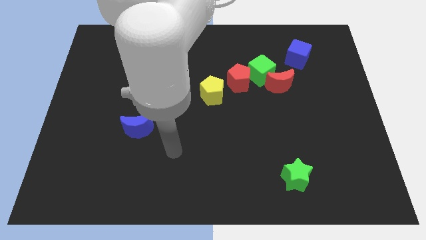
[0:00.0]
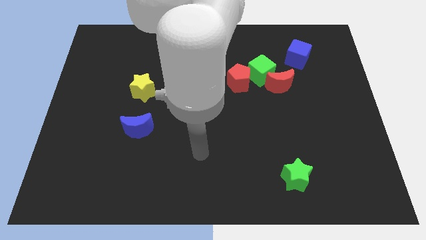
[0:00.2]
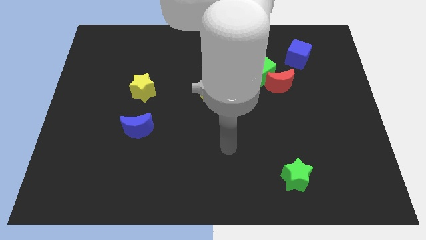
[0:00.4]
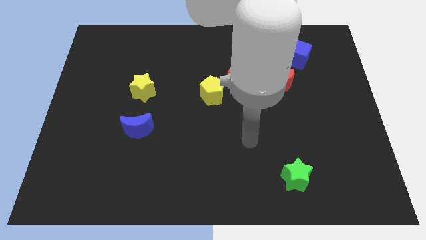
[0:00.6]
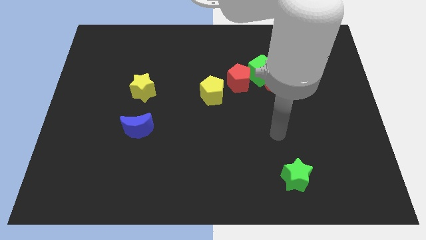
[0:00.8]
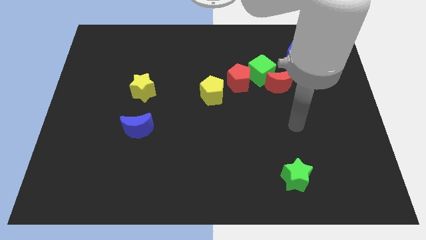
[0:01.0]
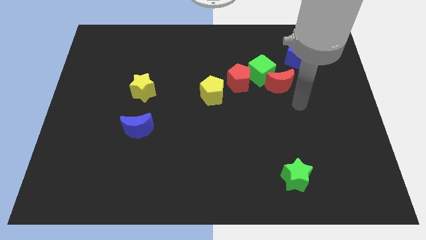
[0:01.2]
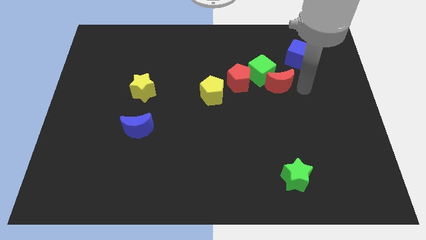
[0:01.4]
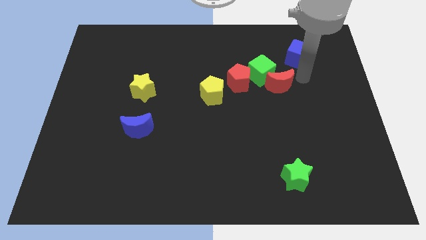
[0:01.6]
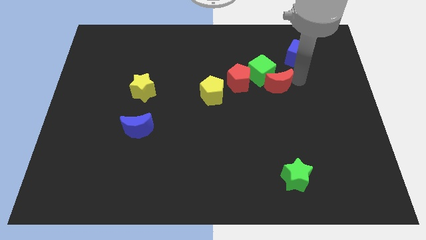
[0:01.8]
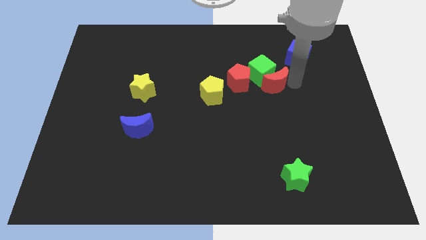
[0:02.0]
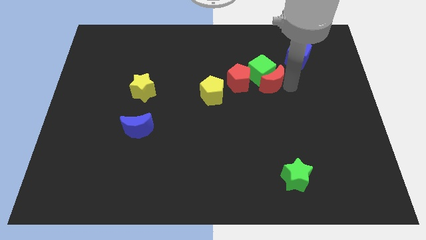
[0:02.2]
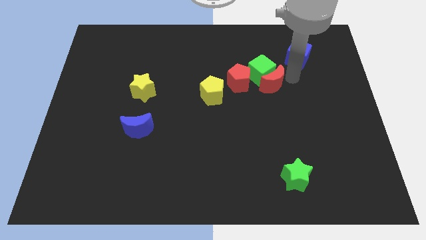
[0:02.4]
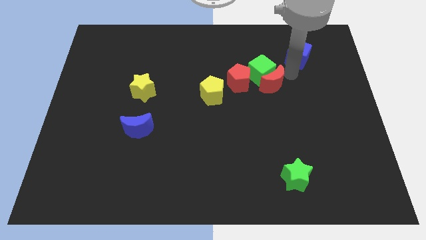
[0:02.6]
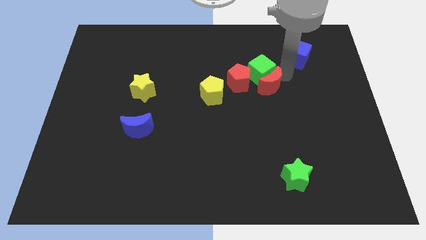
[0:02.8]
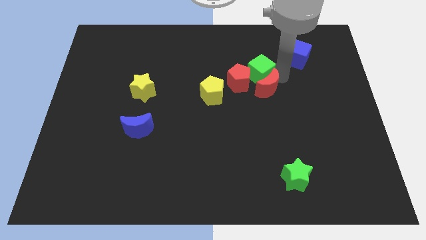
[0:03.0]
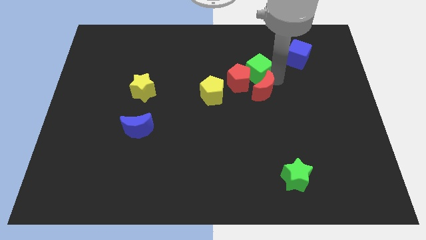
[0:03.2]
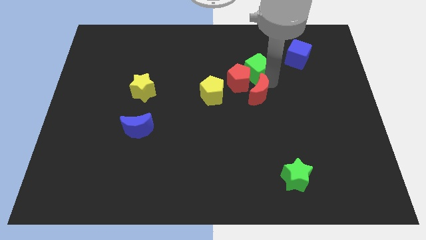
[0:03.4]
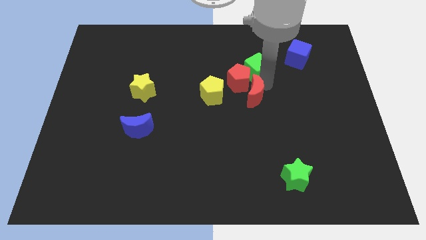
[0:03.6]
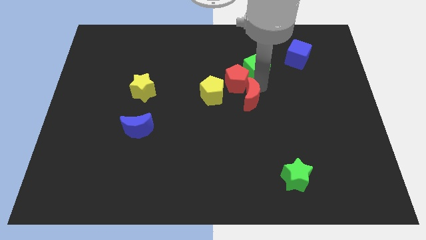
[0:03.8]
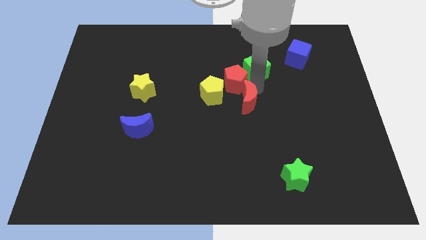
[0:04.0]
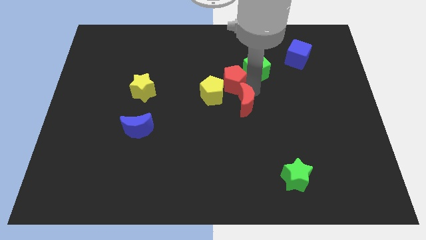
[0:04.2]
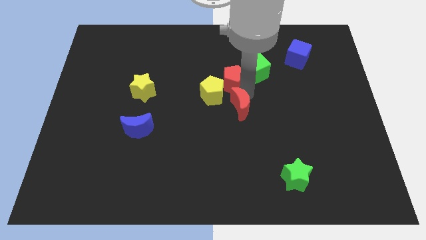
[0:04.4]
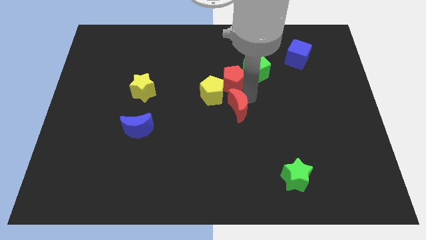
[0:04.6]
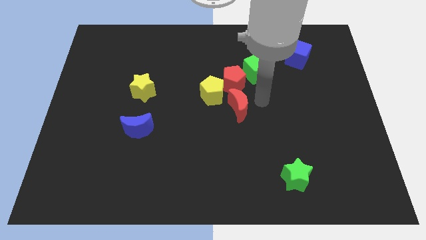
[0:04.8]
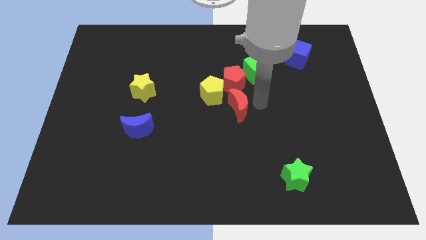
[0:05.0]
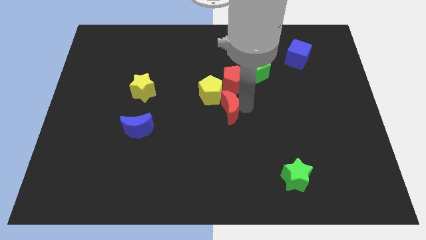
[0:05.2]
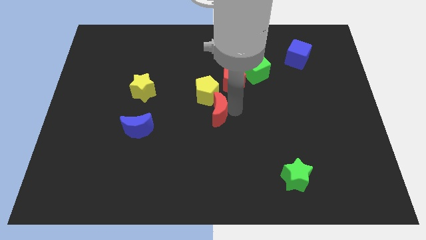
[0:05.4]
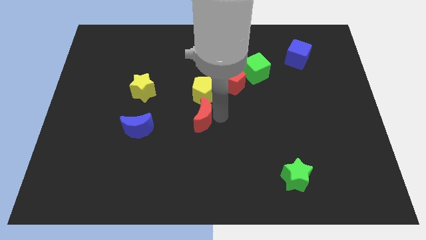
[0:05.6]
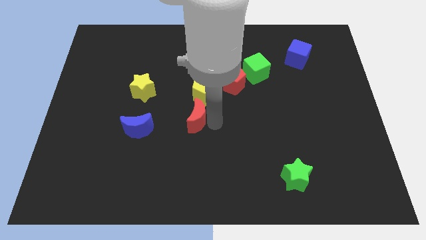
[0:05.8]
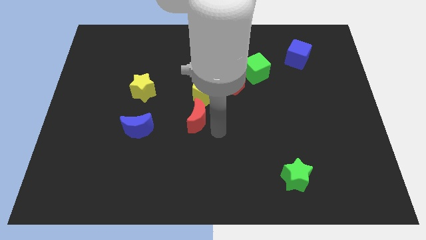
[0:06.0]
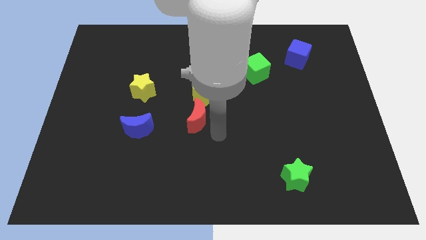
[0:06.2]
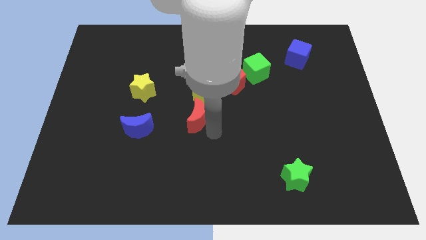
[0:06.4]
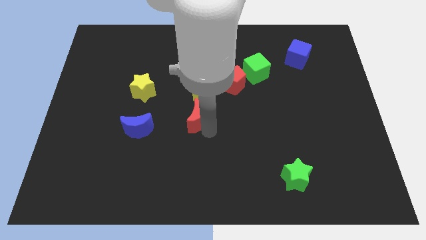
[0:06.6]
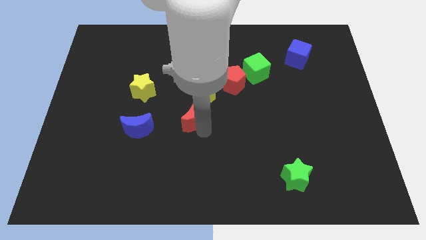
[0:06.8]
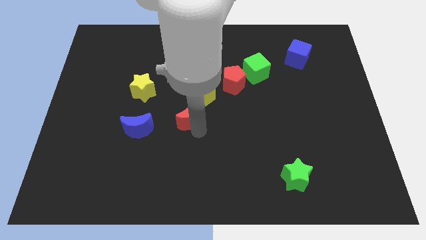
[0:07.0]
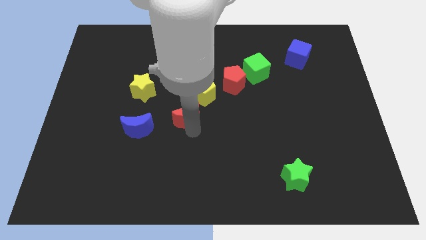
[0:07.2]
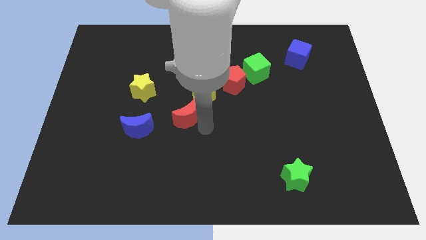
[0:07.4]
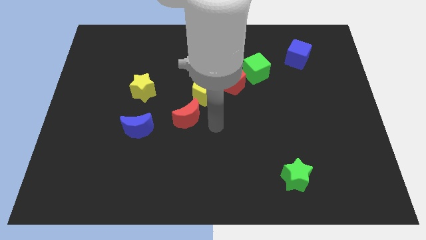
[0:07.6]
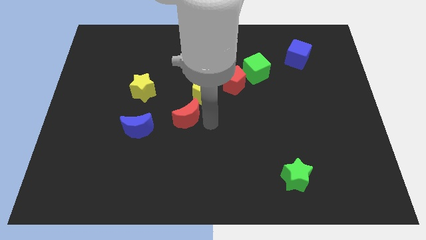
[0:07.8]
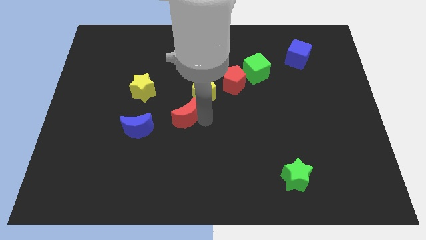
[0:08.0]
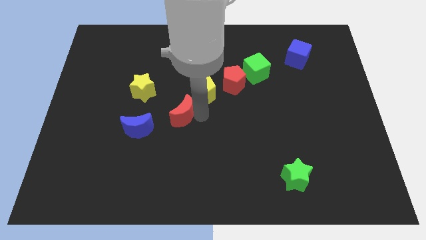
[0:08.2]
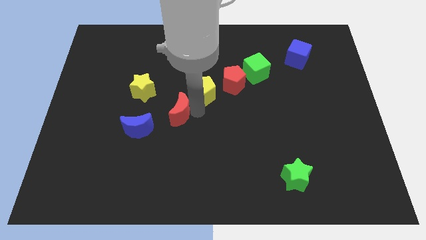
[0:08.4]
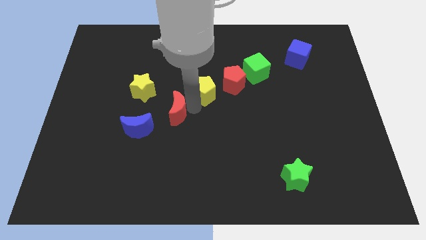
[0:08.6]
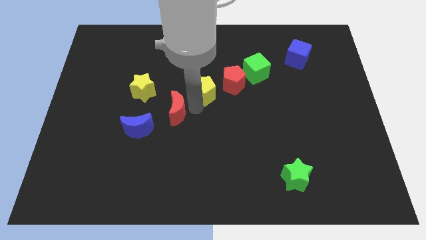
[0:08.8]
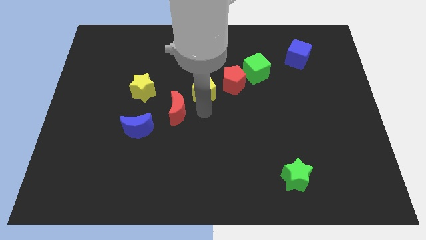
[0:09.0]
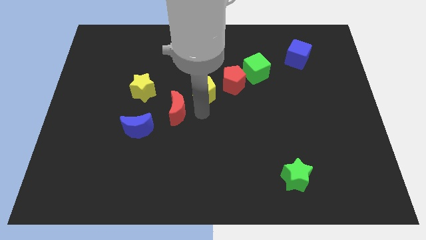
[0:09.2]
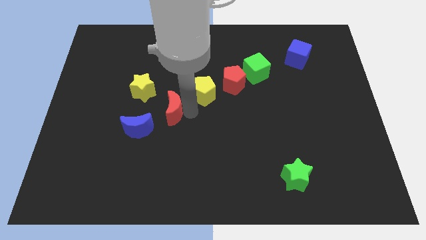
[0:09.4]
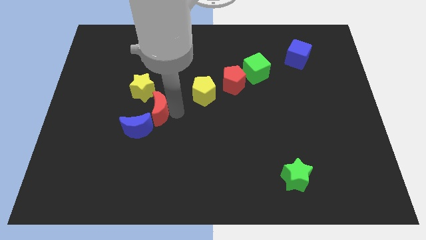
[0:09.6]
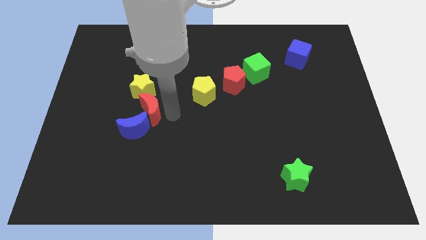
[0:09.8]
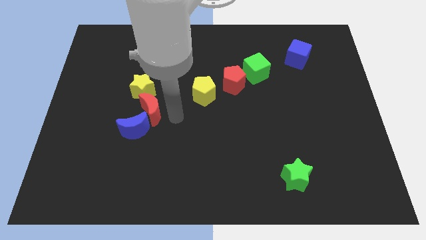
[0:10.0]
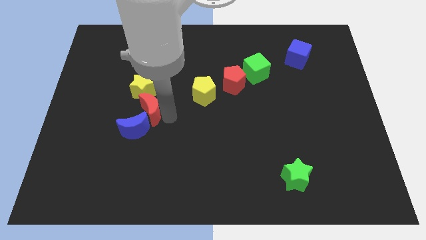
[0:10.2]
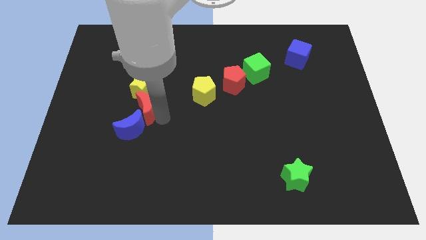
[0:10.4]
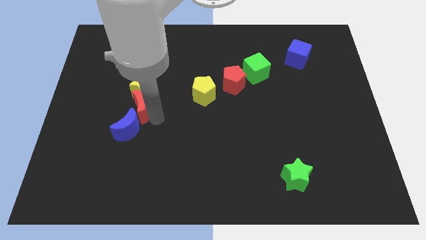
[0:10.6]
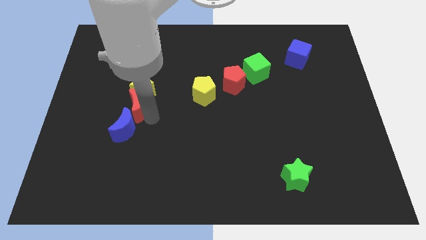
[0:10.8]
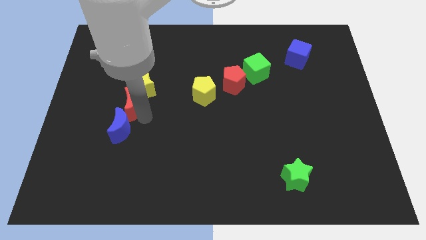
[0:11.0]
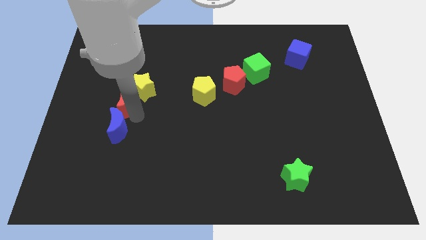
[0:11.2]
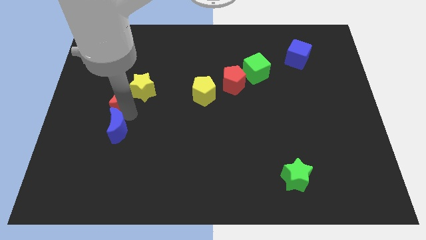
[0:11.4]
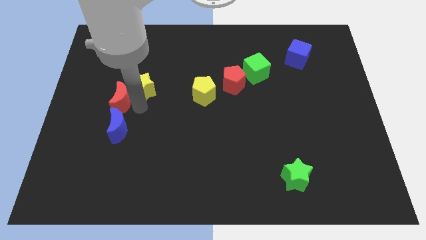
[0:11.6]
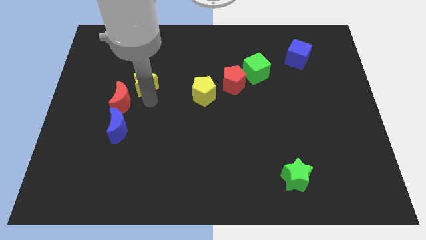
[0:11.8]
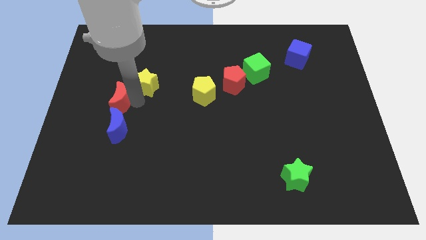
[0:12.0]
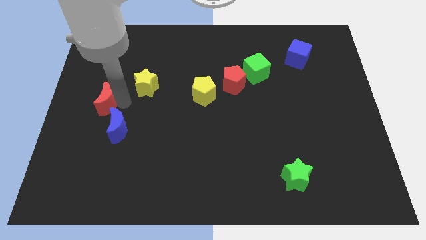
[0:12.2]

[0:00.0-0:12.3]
push the red moon to the left side

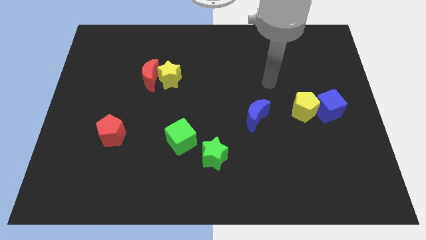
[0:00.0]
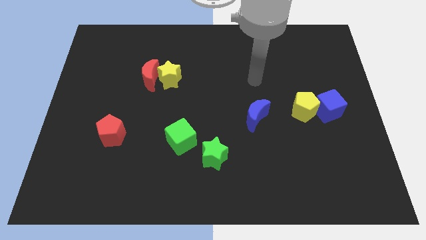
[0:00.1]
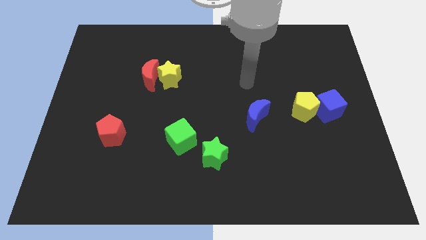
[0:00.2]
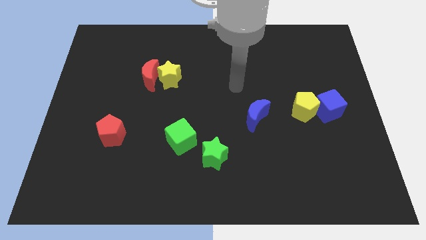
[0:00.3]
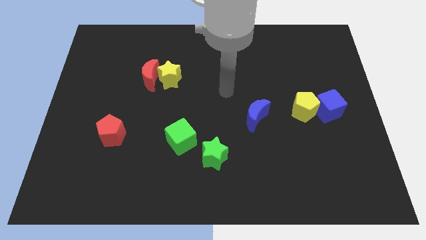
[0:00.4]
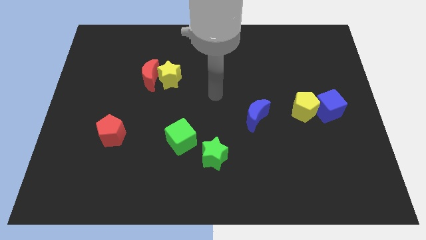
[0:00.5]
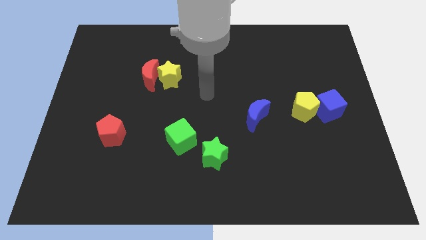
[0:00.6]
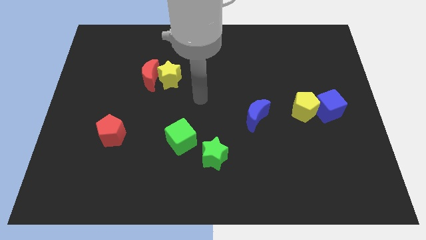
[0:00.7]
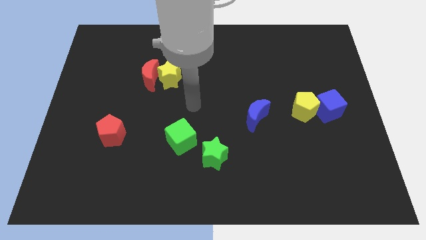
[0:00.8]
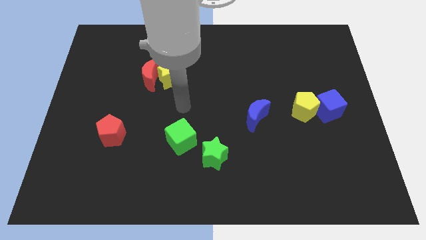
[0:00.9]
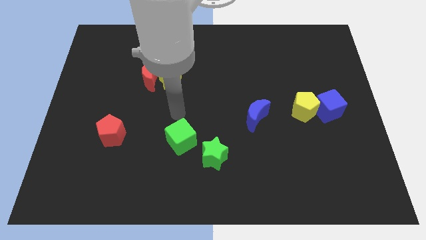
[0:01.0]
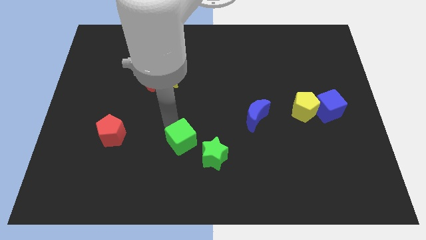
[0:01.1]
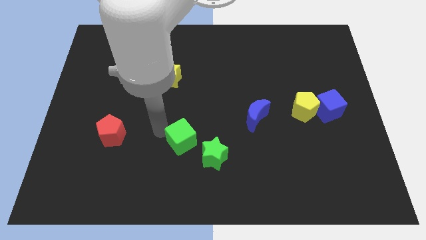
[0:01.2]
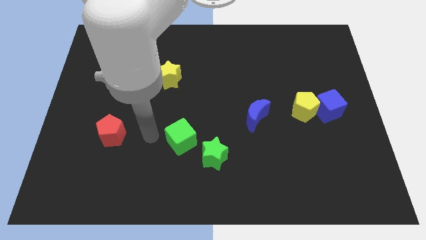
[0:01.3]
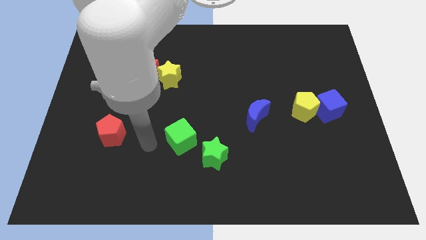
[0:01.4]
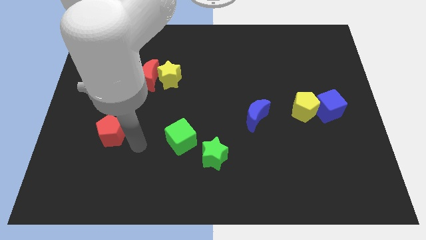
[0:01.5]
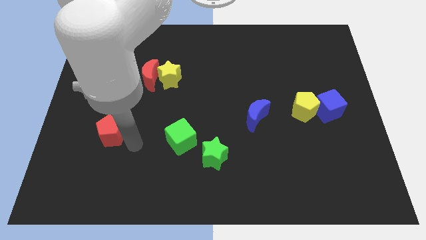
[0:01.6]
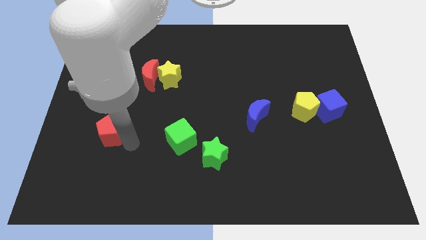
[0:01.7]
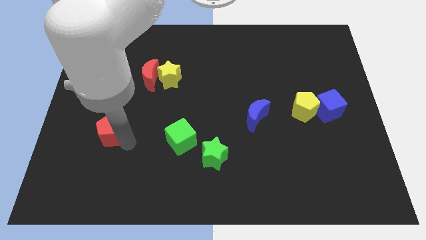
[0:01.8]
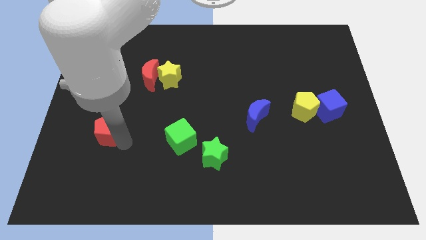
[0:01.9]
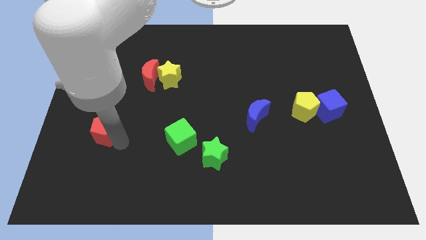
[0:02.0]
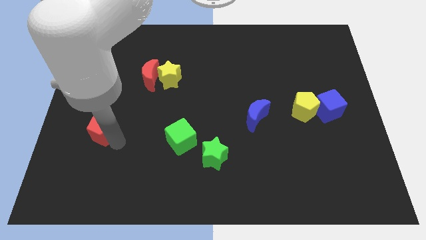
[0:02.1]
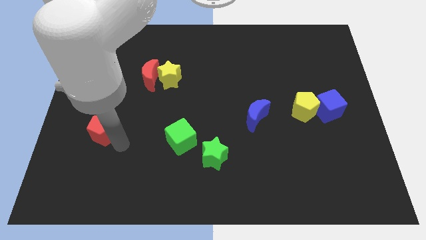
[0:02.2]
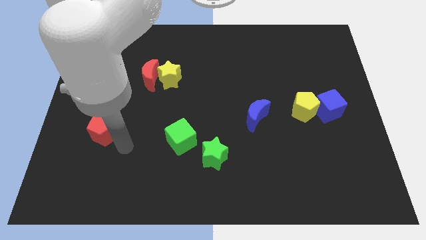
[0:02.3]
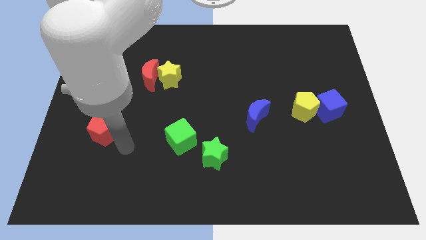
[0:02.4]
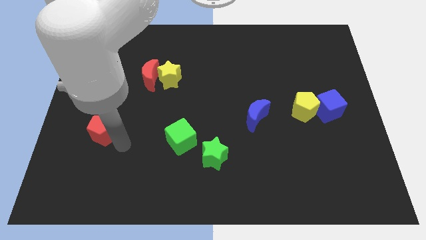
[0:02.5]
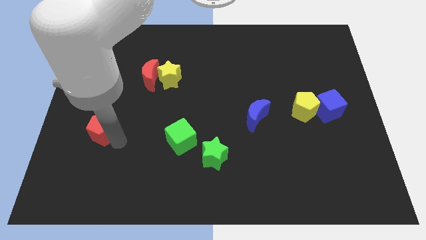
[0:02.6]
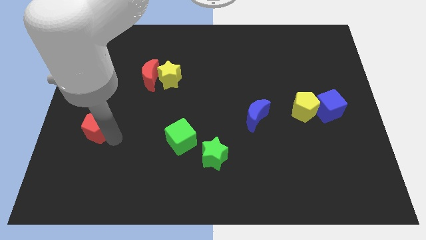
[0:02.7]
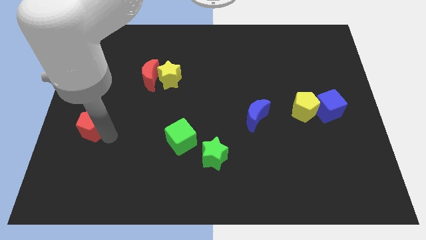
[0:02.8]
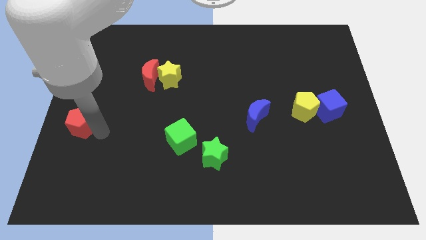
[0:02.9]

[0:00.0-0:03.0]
put the red pentagon to the left side of the board
